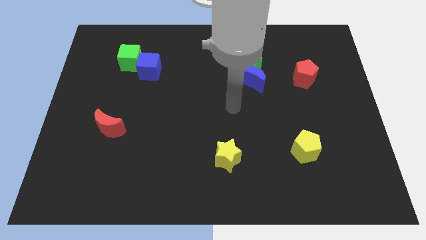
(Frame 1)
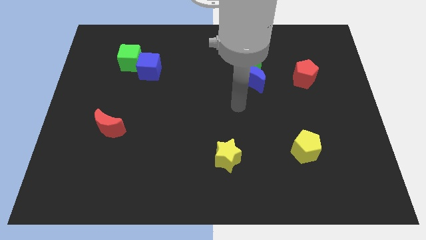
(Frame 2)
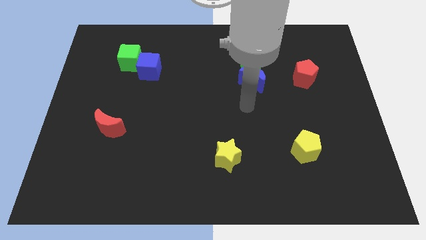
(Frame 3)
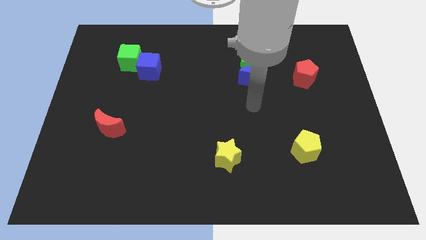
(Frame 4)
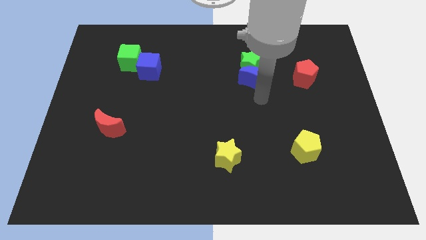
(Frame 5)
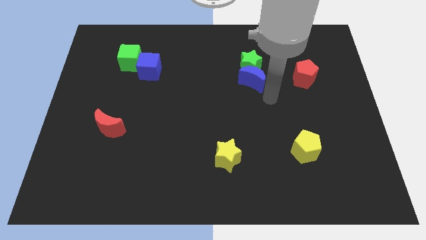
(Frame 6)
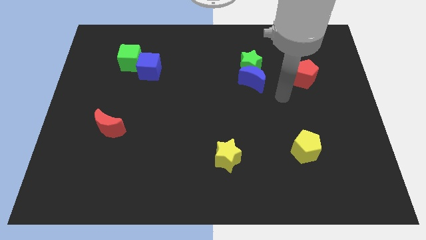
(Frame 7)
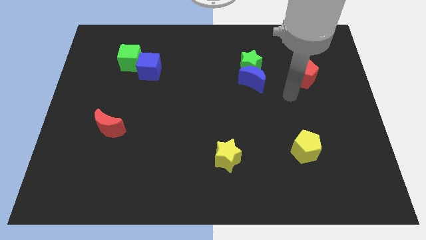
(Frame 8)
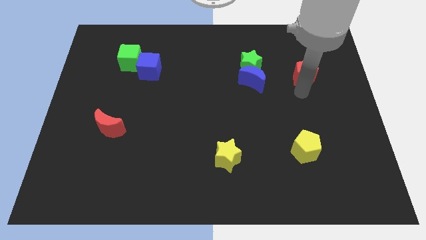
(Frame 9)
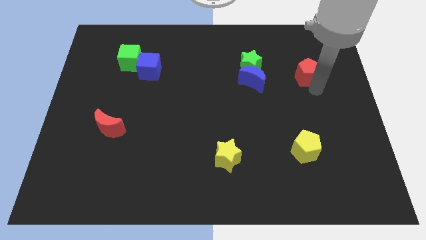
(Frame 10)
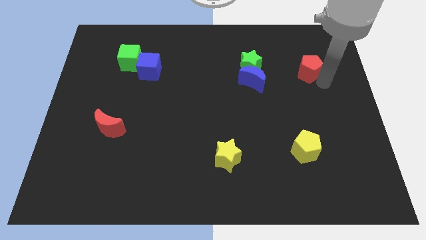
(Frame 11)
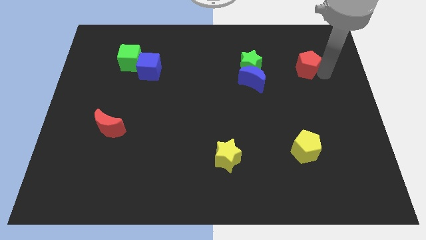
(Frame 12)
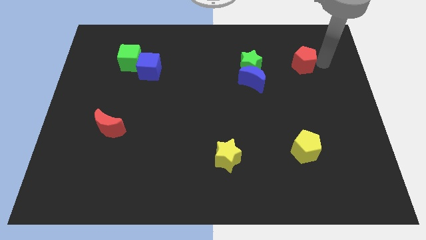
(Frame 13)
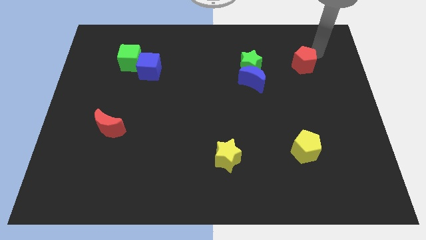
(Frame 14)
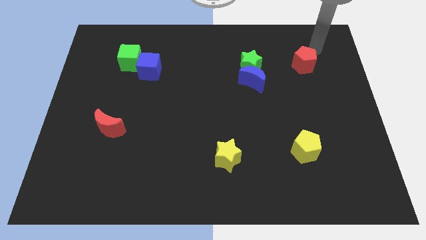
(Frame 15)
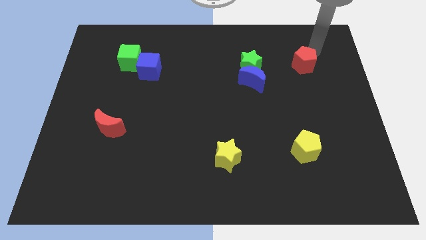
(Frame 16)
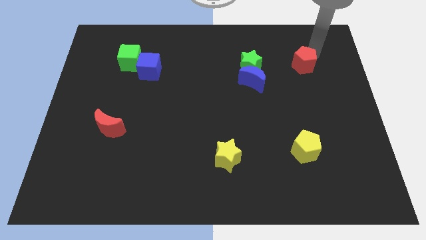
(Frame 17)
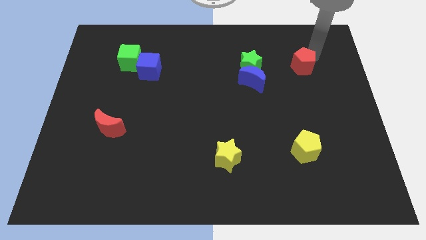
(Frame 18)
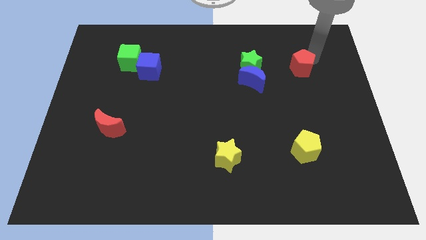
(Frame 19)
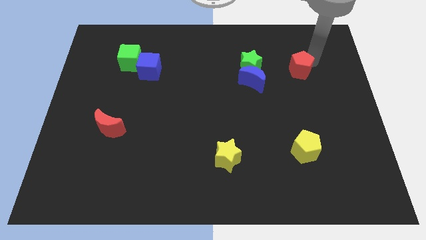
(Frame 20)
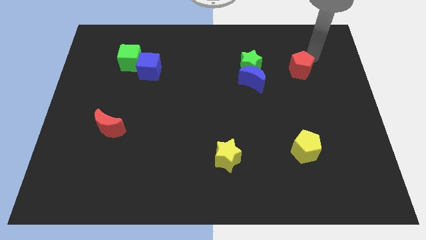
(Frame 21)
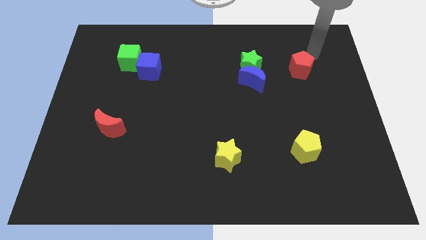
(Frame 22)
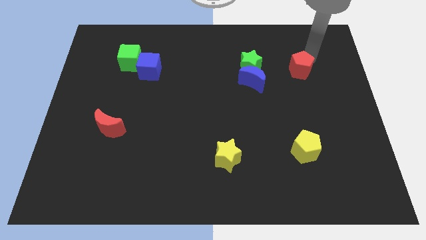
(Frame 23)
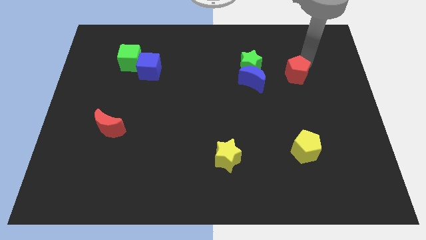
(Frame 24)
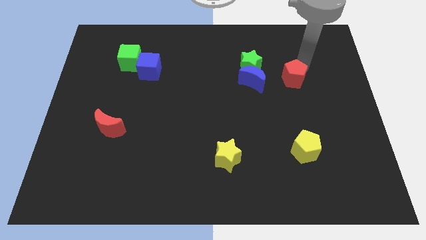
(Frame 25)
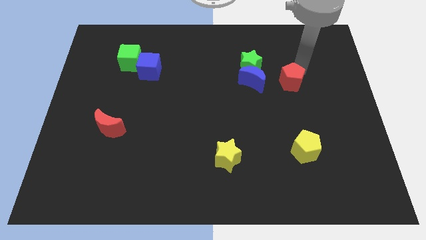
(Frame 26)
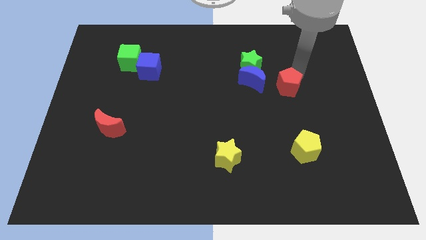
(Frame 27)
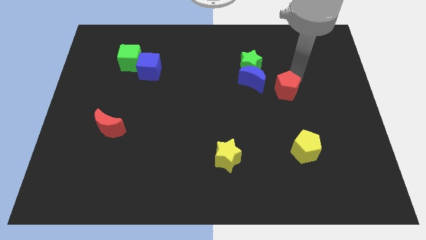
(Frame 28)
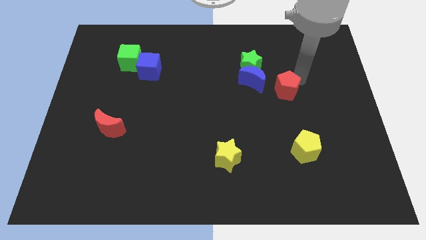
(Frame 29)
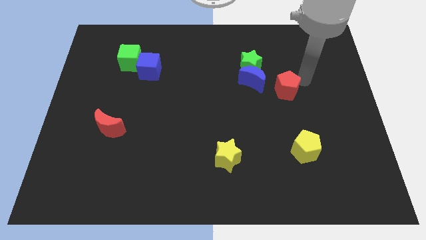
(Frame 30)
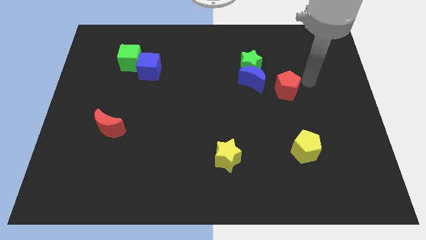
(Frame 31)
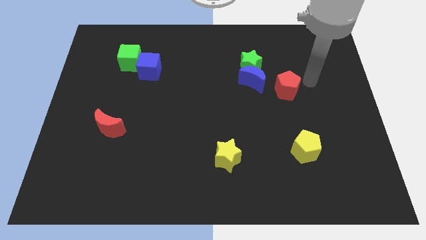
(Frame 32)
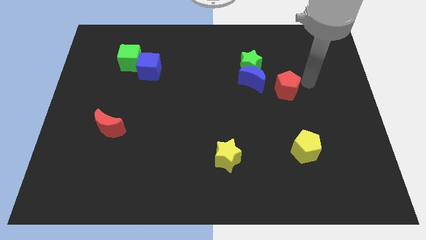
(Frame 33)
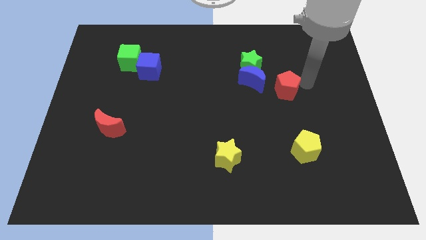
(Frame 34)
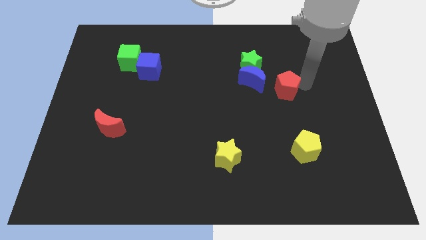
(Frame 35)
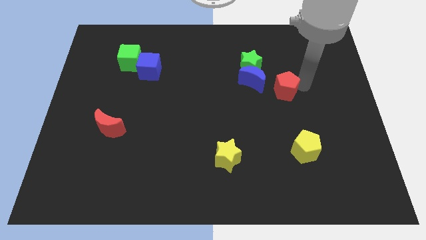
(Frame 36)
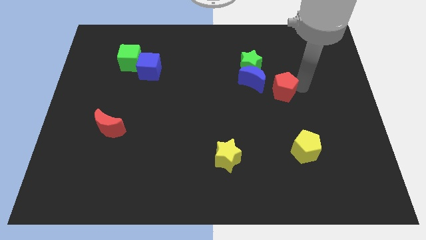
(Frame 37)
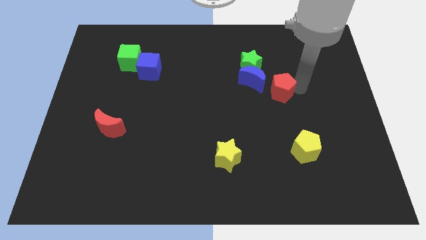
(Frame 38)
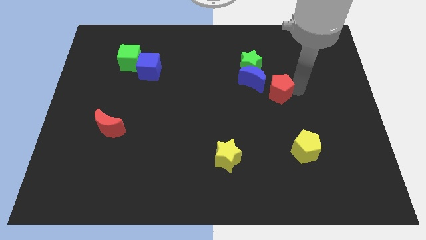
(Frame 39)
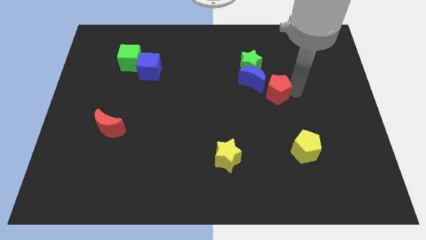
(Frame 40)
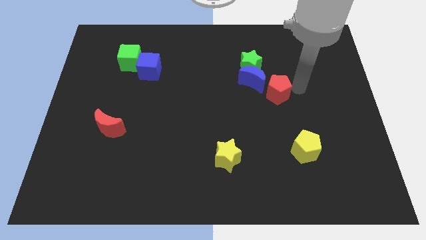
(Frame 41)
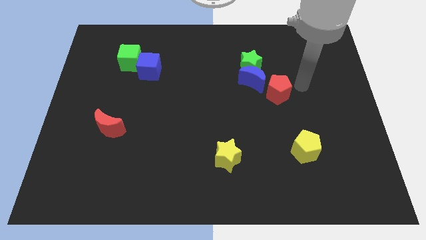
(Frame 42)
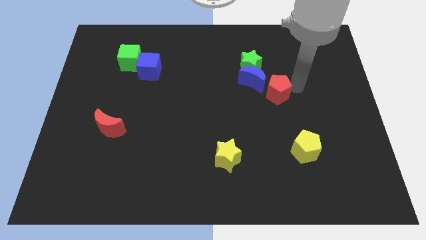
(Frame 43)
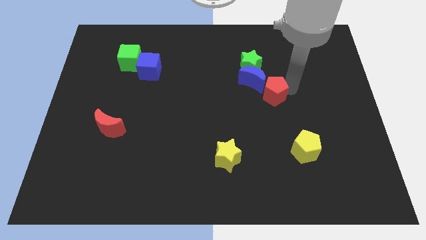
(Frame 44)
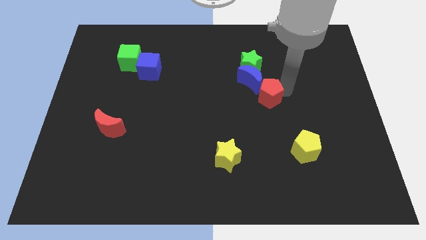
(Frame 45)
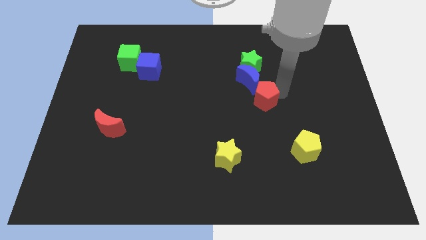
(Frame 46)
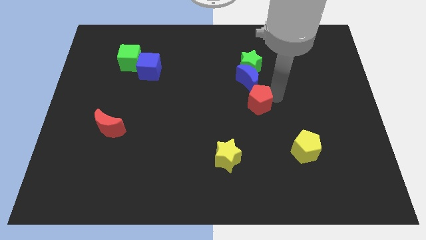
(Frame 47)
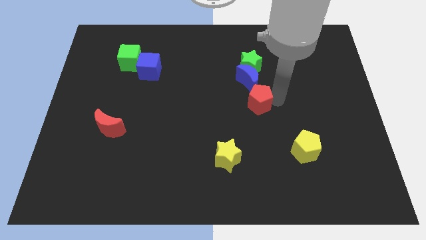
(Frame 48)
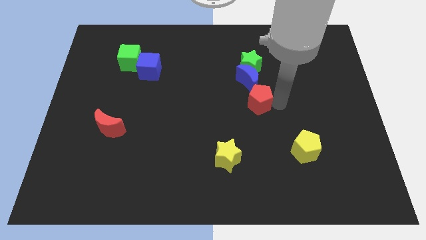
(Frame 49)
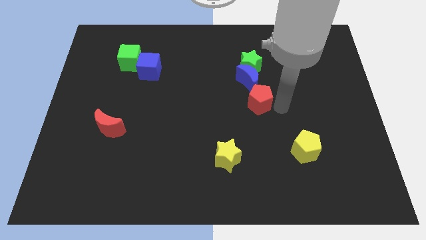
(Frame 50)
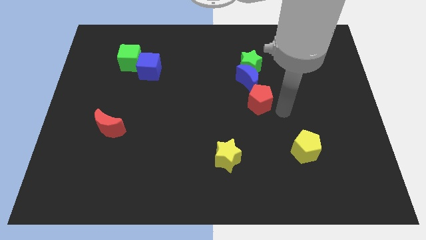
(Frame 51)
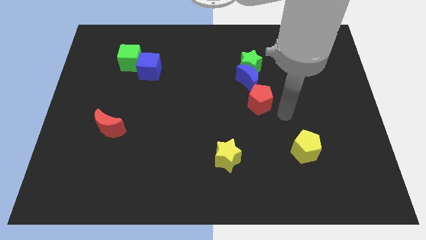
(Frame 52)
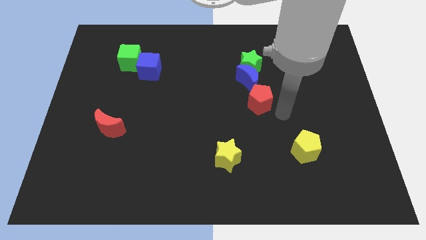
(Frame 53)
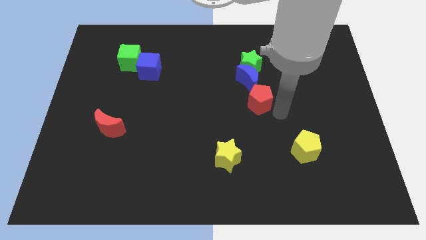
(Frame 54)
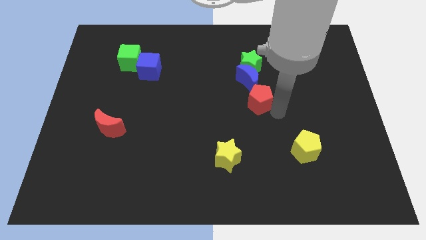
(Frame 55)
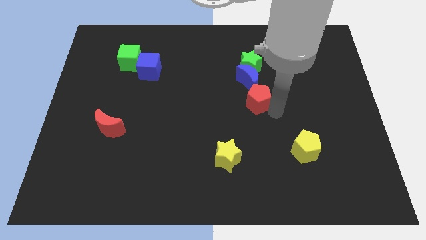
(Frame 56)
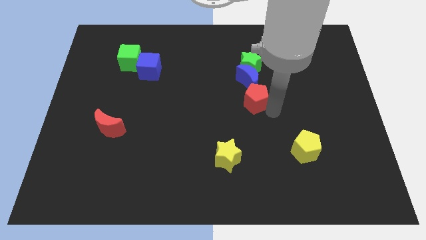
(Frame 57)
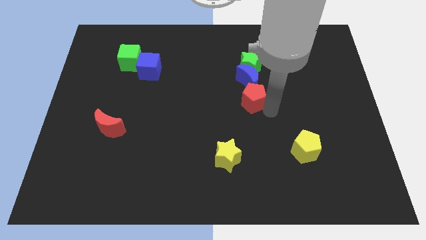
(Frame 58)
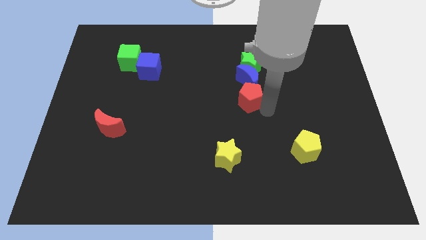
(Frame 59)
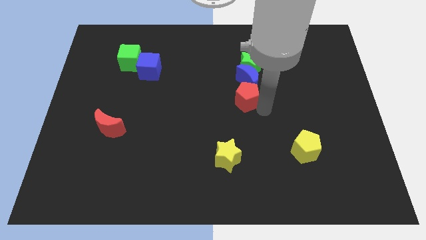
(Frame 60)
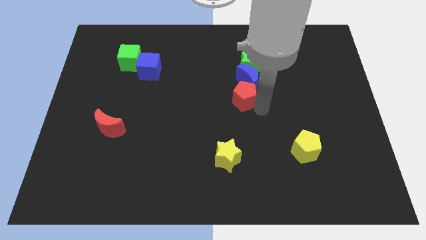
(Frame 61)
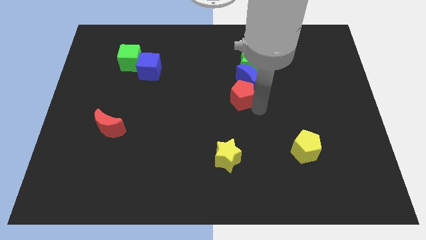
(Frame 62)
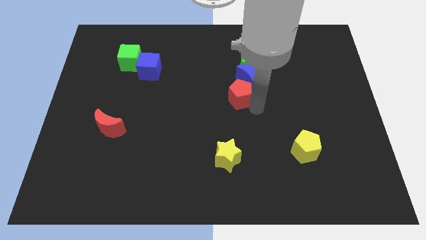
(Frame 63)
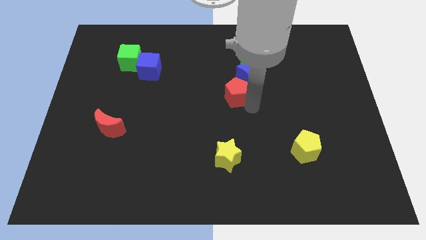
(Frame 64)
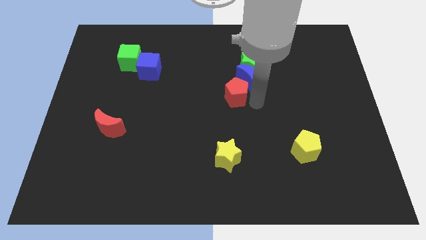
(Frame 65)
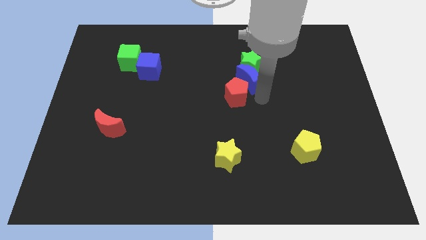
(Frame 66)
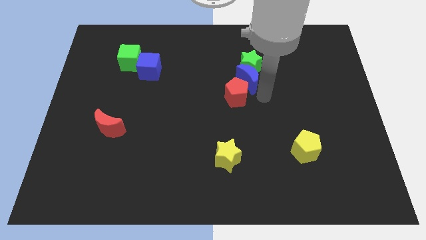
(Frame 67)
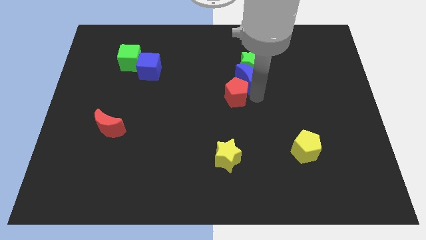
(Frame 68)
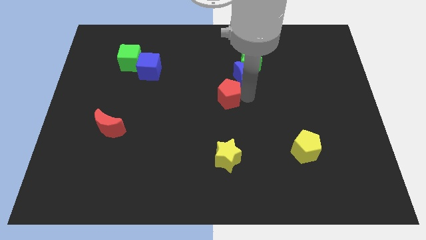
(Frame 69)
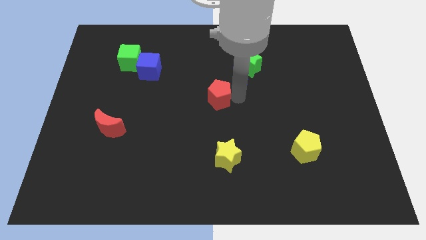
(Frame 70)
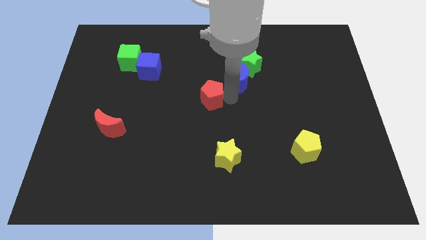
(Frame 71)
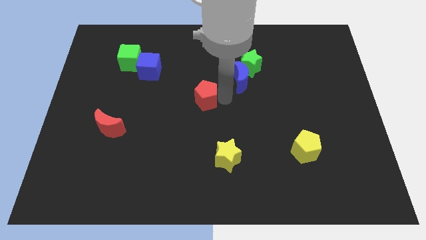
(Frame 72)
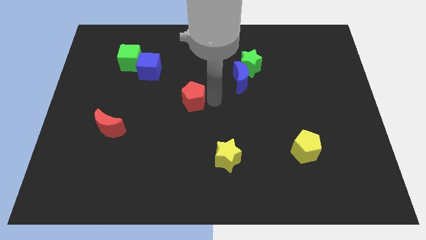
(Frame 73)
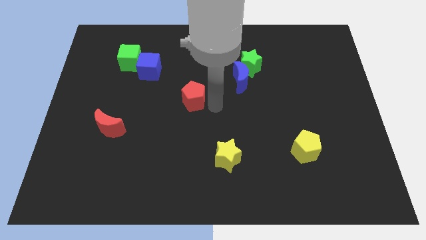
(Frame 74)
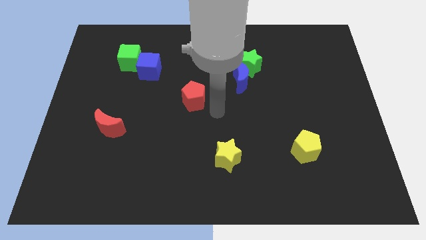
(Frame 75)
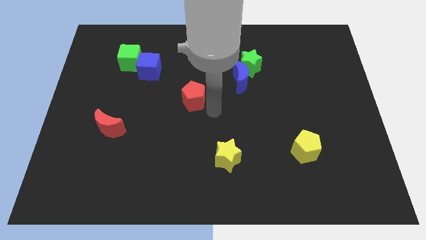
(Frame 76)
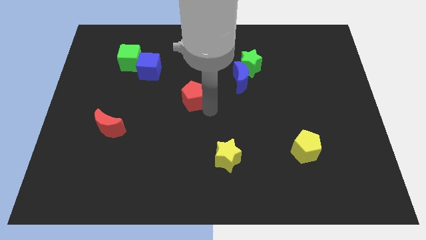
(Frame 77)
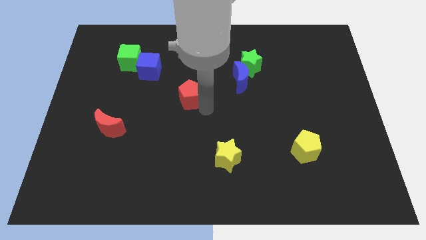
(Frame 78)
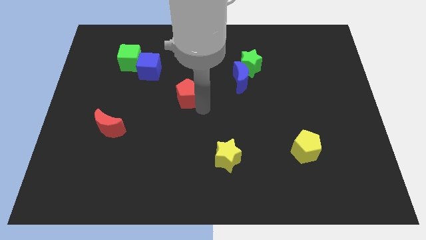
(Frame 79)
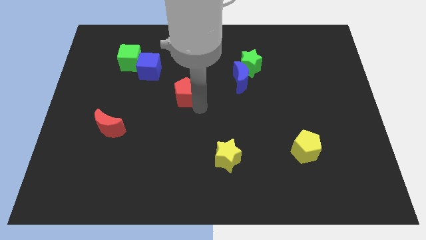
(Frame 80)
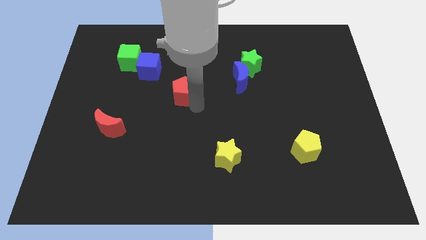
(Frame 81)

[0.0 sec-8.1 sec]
slide the red pentagon to the bottom right of the blue cube

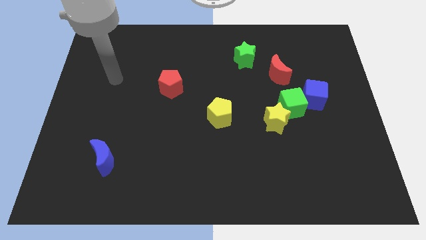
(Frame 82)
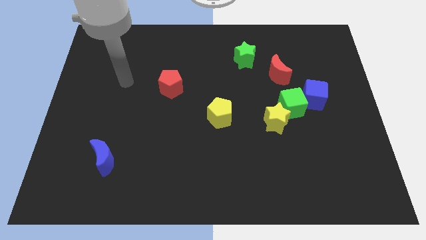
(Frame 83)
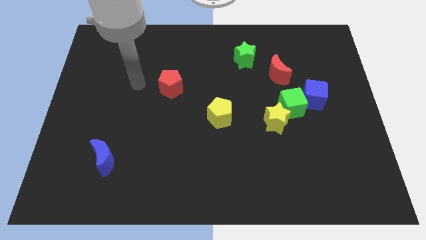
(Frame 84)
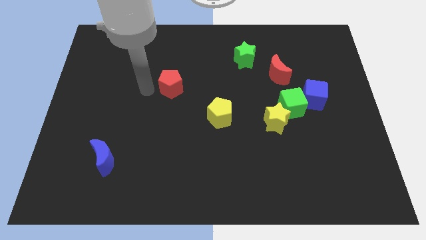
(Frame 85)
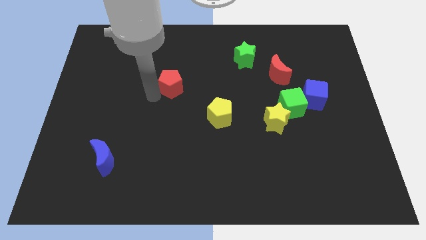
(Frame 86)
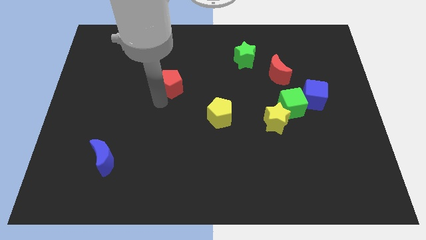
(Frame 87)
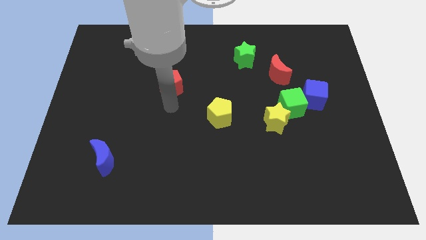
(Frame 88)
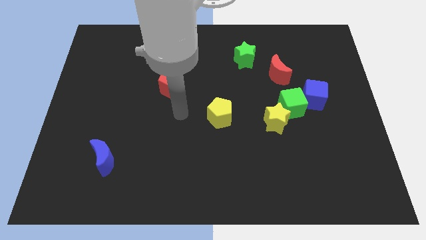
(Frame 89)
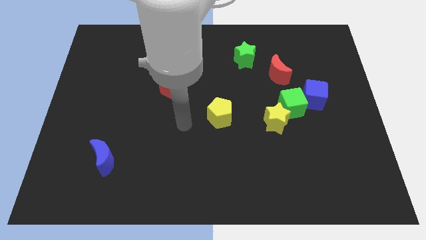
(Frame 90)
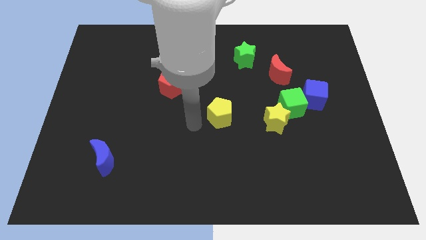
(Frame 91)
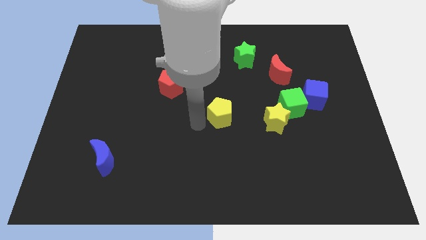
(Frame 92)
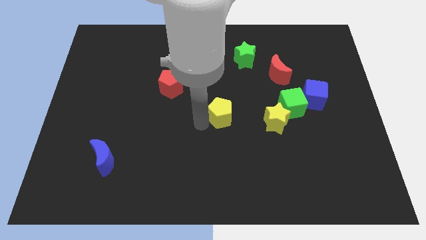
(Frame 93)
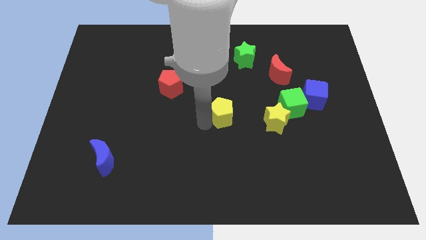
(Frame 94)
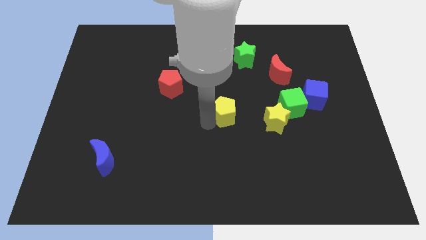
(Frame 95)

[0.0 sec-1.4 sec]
move the yellow pentagon to the left of the green cube
